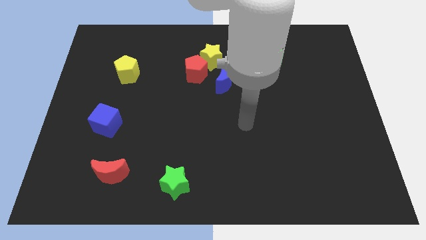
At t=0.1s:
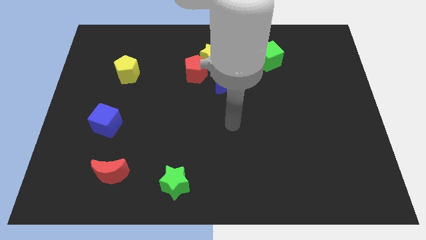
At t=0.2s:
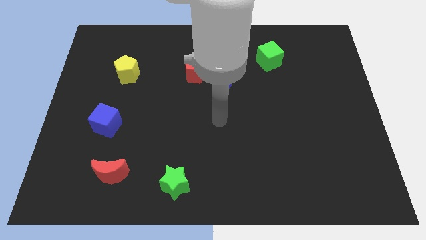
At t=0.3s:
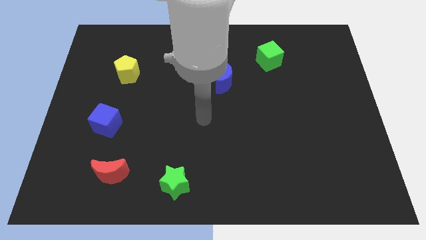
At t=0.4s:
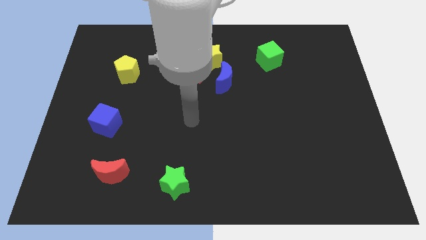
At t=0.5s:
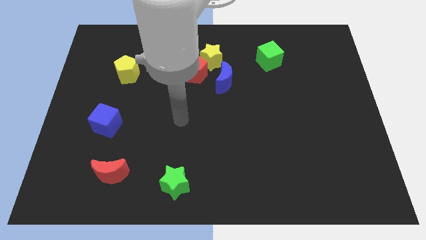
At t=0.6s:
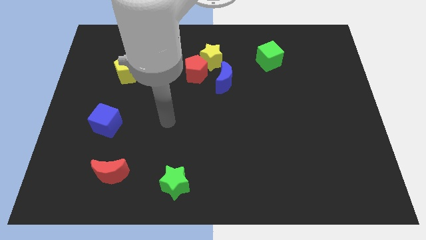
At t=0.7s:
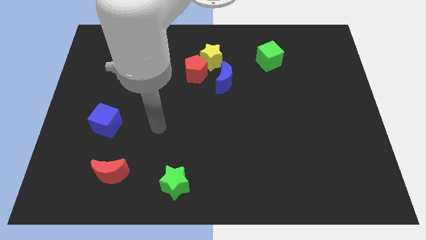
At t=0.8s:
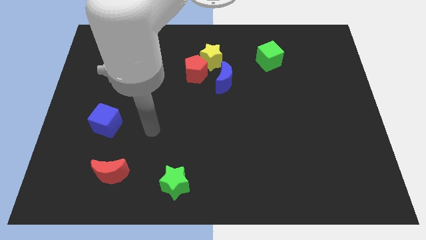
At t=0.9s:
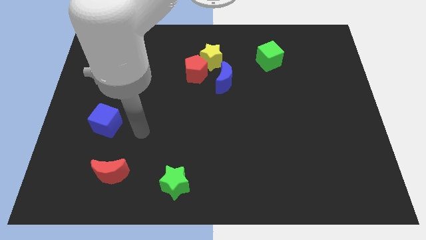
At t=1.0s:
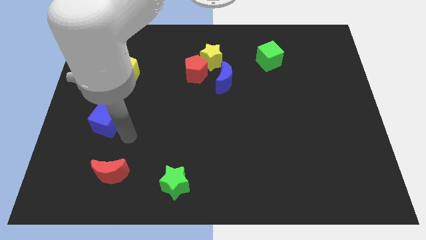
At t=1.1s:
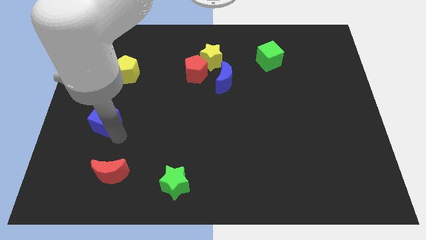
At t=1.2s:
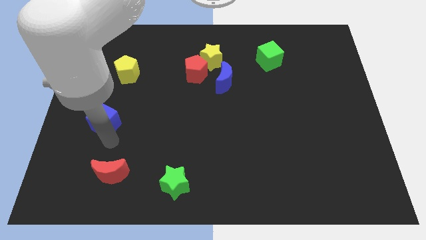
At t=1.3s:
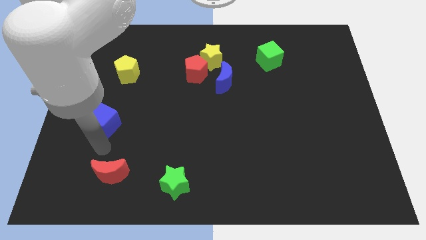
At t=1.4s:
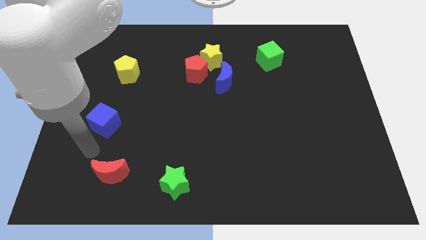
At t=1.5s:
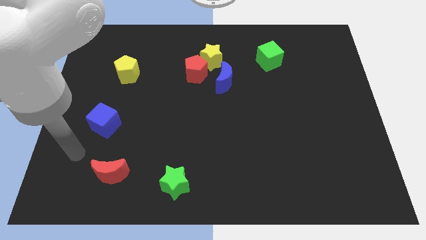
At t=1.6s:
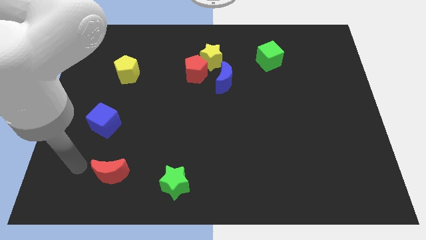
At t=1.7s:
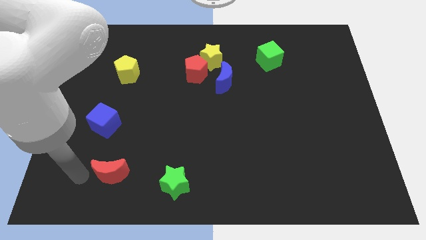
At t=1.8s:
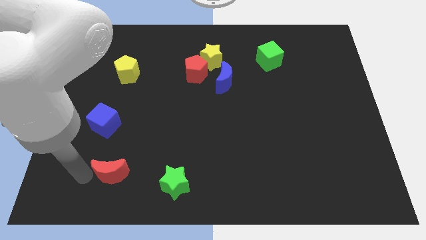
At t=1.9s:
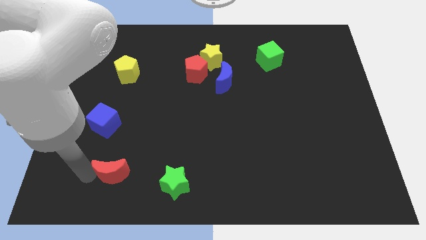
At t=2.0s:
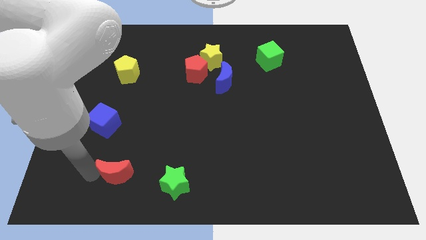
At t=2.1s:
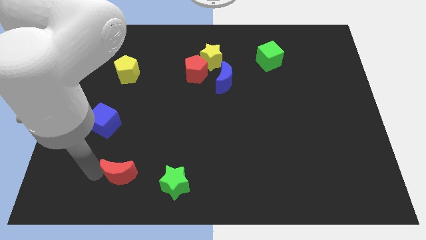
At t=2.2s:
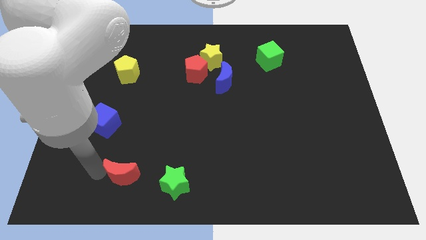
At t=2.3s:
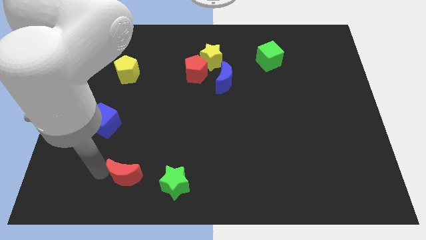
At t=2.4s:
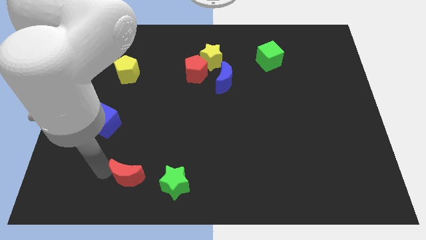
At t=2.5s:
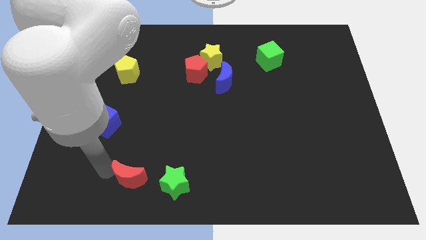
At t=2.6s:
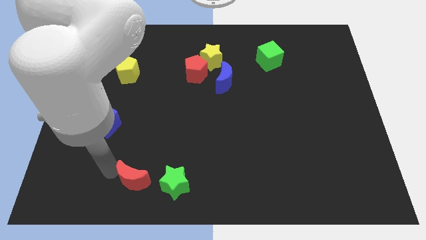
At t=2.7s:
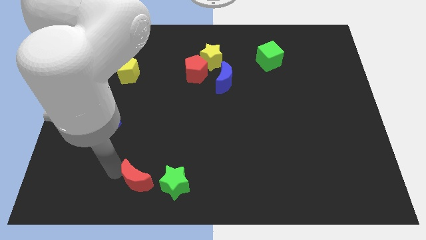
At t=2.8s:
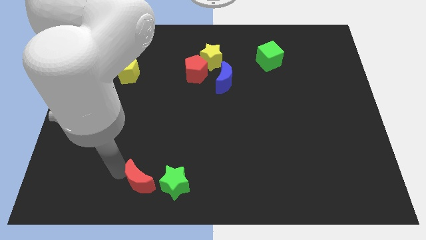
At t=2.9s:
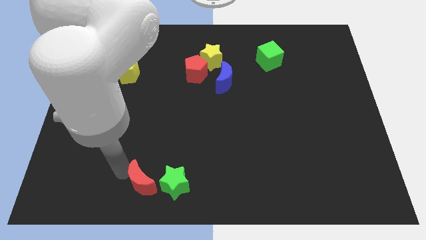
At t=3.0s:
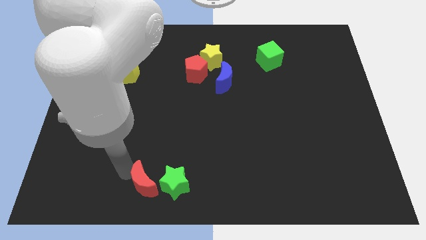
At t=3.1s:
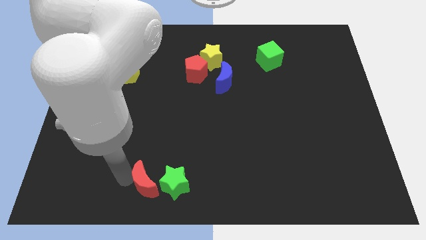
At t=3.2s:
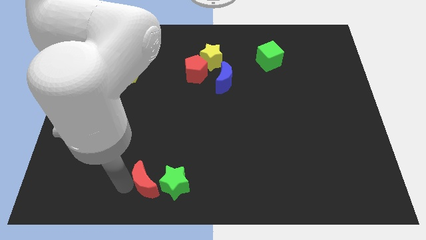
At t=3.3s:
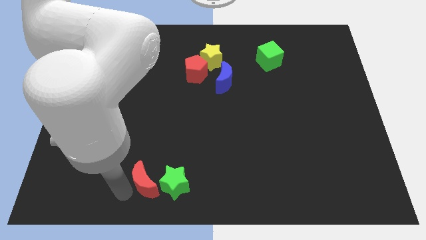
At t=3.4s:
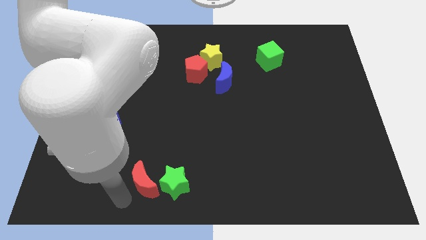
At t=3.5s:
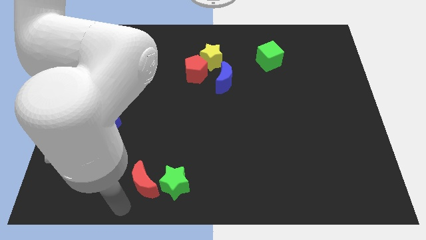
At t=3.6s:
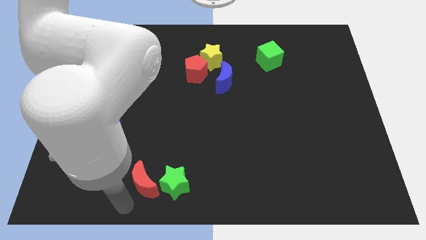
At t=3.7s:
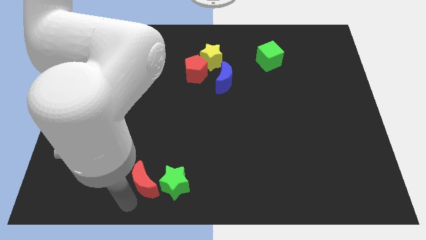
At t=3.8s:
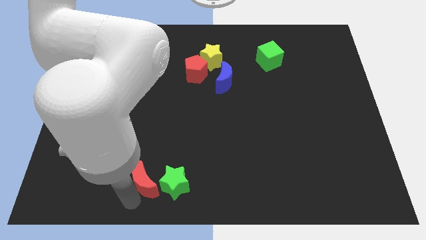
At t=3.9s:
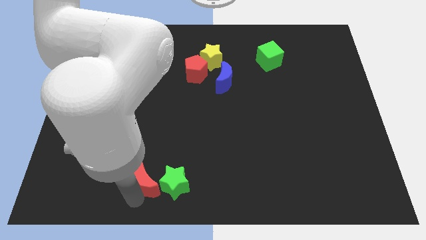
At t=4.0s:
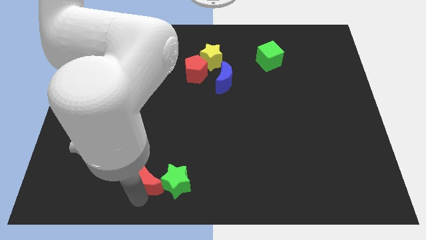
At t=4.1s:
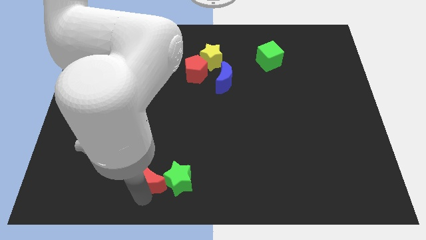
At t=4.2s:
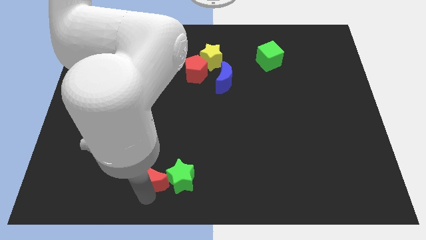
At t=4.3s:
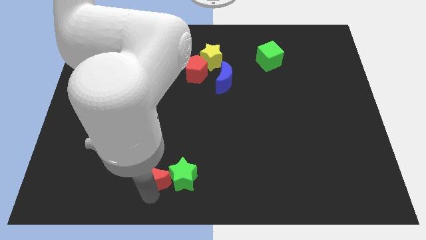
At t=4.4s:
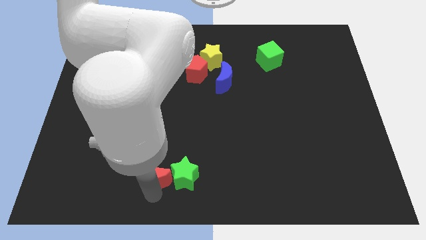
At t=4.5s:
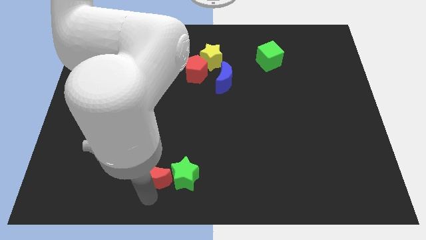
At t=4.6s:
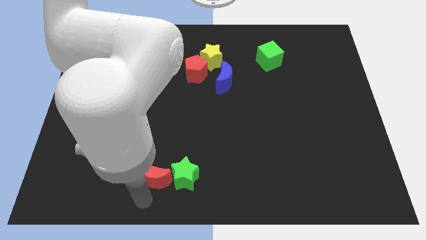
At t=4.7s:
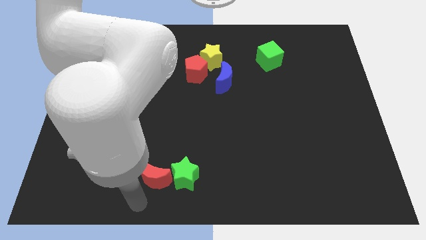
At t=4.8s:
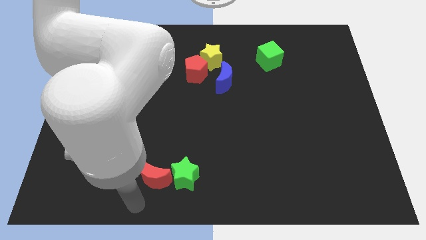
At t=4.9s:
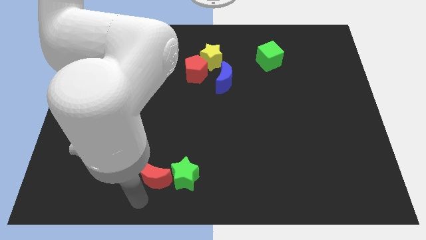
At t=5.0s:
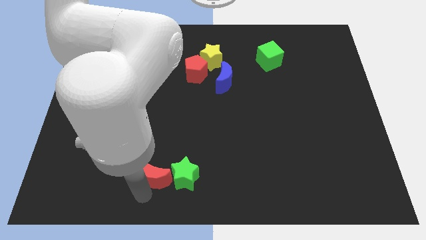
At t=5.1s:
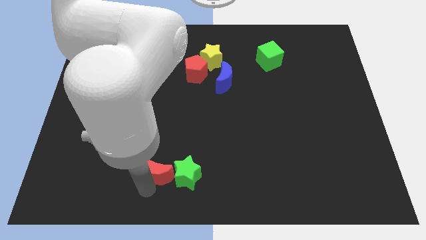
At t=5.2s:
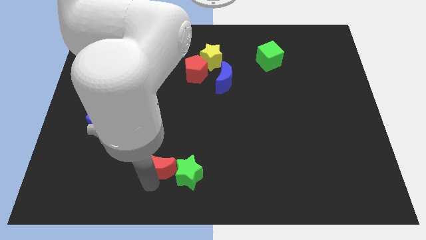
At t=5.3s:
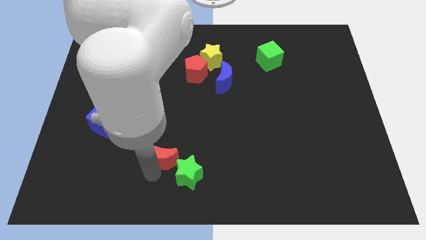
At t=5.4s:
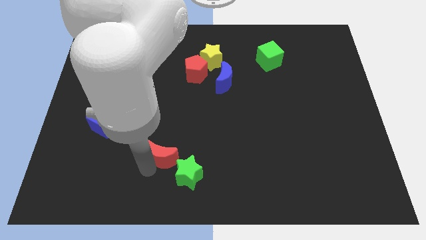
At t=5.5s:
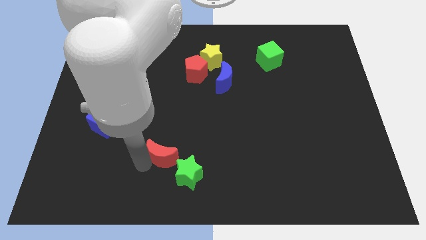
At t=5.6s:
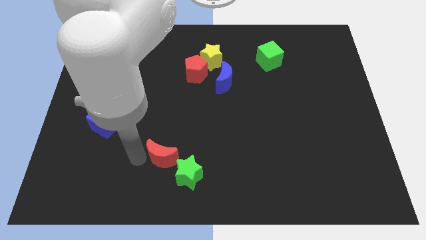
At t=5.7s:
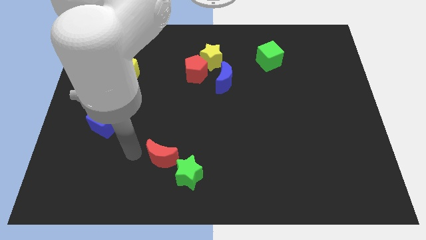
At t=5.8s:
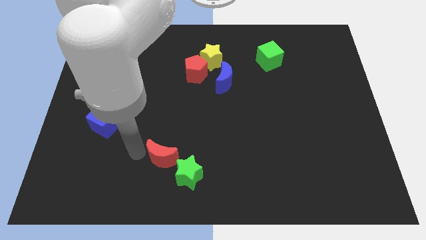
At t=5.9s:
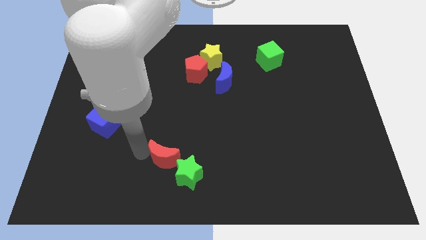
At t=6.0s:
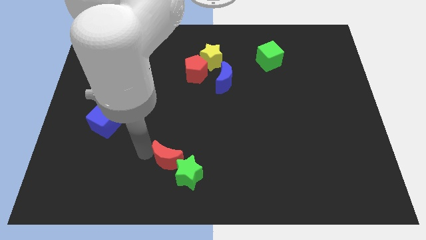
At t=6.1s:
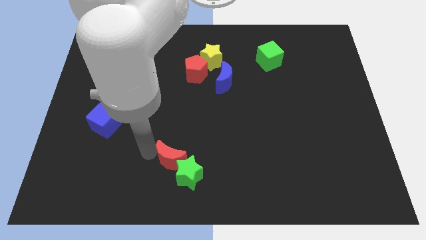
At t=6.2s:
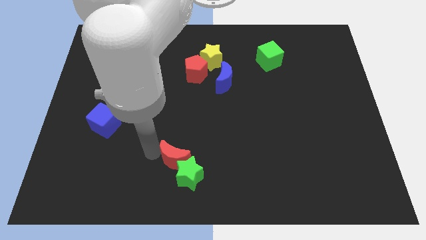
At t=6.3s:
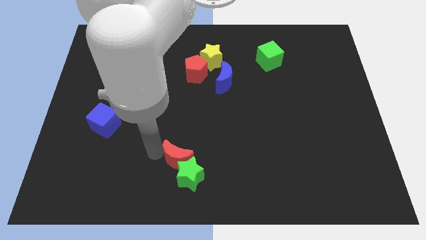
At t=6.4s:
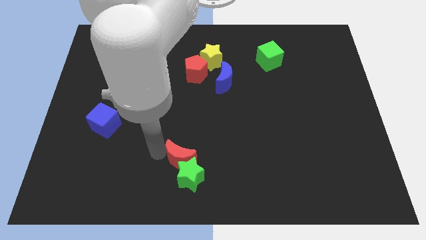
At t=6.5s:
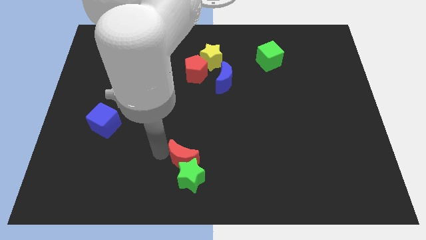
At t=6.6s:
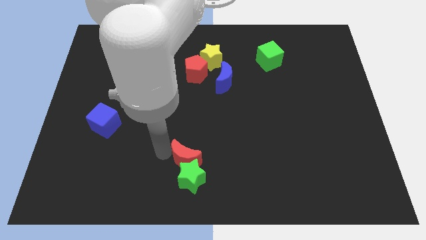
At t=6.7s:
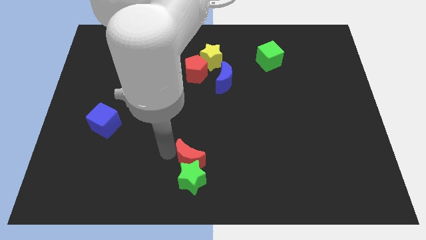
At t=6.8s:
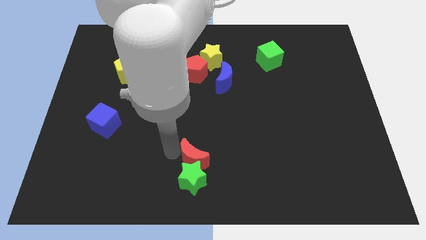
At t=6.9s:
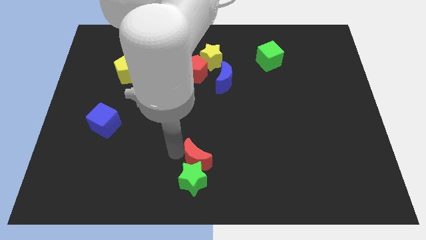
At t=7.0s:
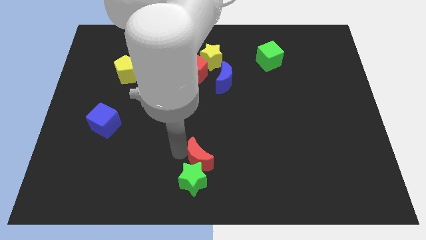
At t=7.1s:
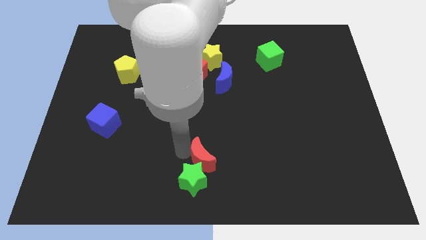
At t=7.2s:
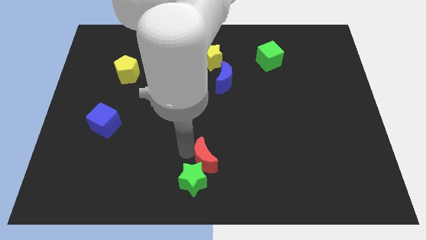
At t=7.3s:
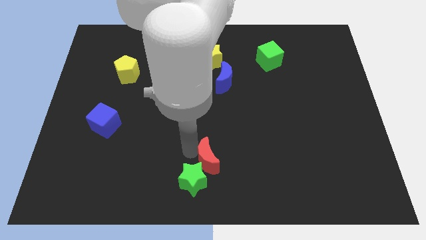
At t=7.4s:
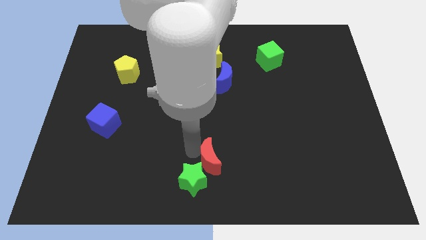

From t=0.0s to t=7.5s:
push the red moon to the right

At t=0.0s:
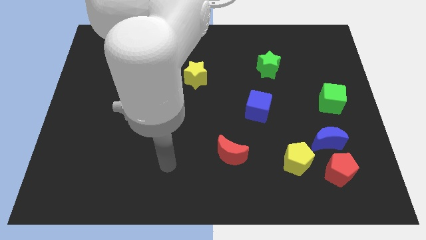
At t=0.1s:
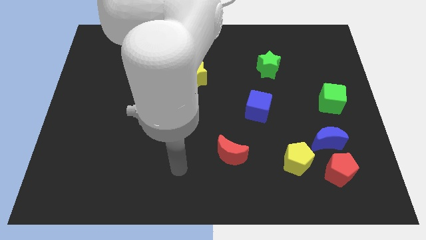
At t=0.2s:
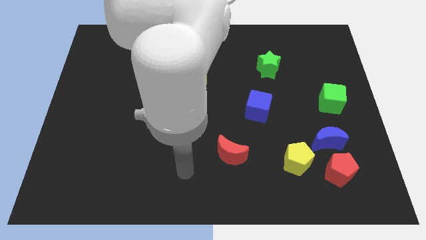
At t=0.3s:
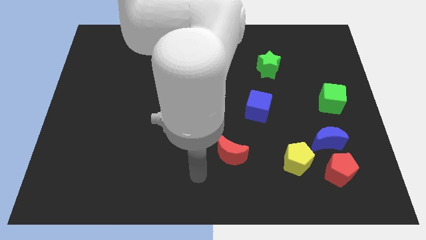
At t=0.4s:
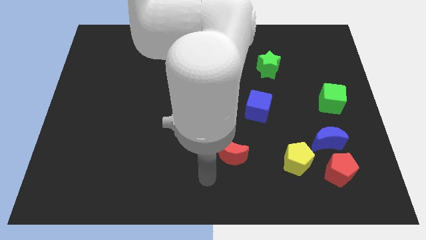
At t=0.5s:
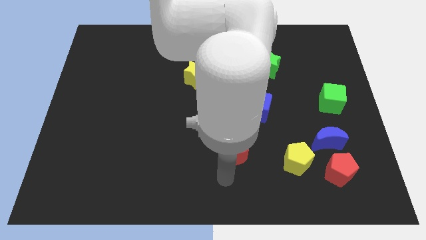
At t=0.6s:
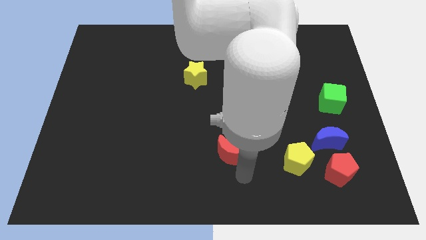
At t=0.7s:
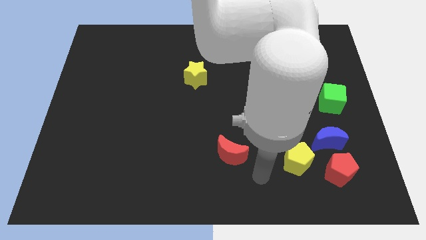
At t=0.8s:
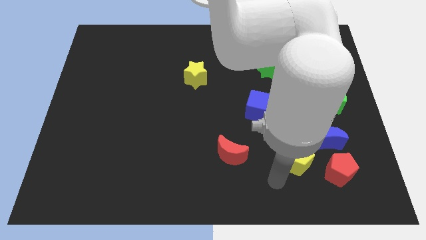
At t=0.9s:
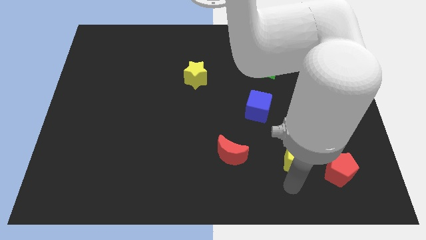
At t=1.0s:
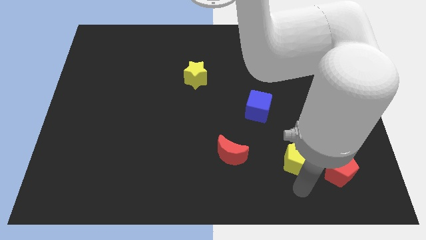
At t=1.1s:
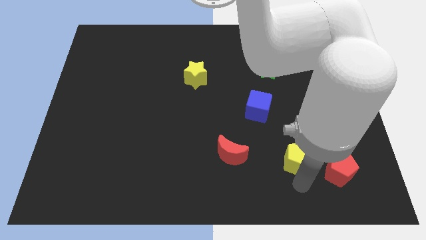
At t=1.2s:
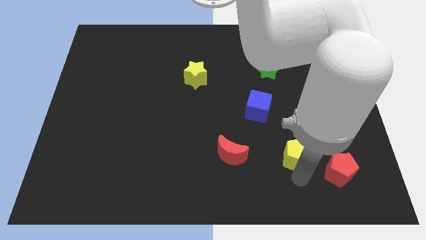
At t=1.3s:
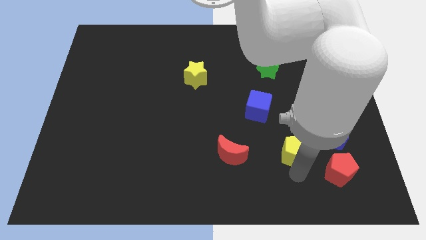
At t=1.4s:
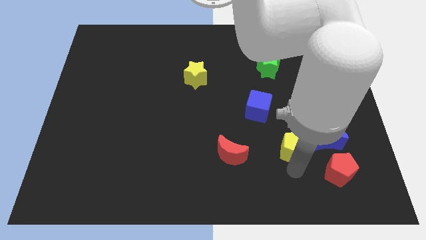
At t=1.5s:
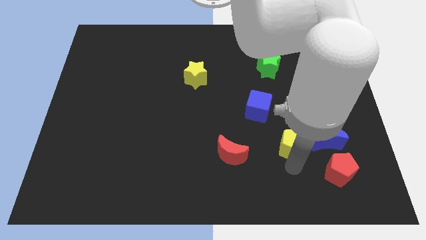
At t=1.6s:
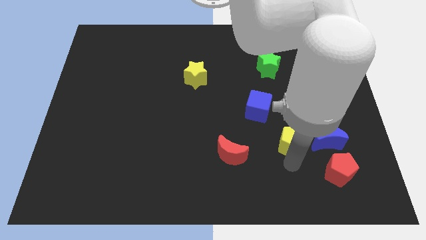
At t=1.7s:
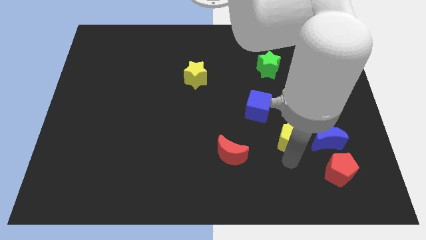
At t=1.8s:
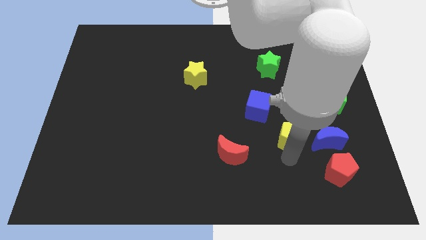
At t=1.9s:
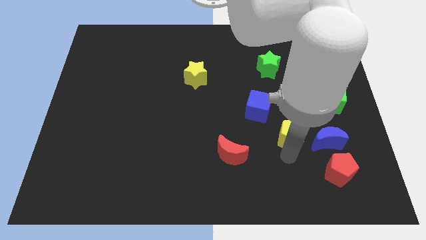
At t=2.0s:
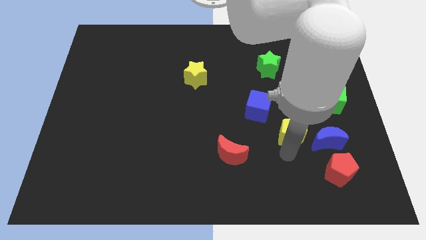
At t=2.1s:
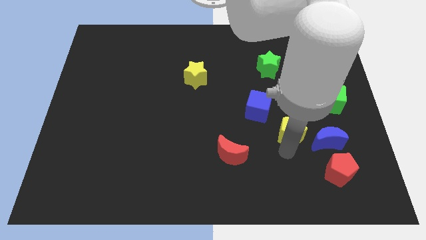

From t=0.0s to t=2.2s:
move the yellow pentagon slightly upwards
